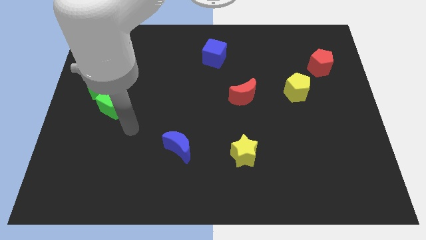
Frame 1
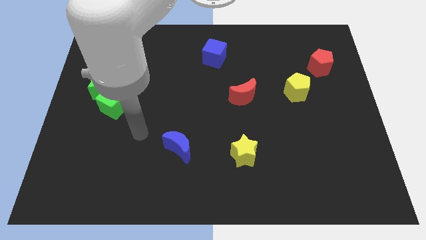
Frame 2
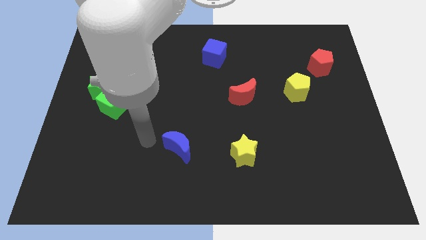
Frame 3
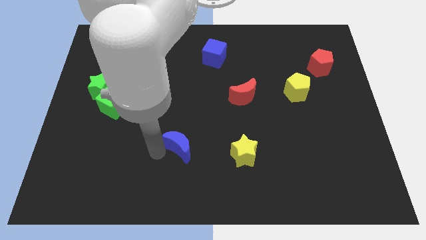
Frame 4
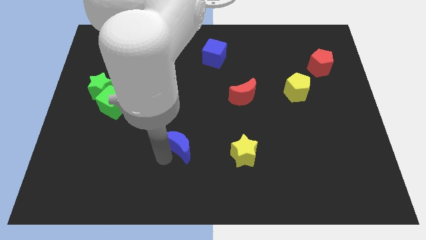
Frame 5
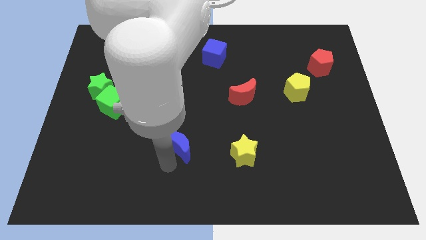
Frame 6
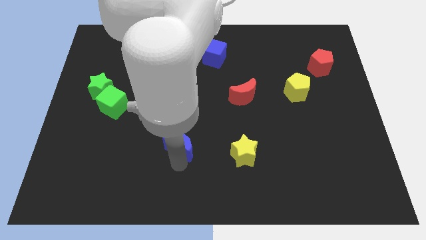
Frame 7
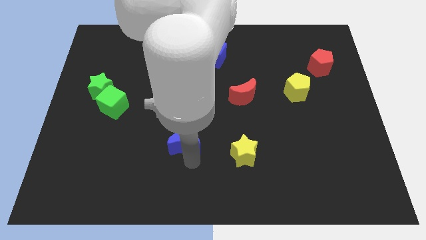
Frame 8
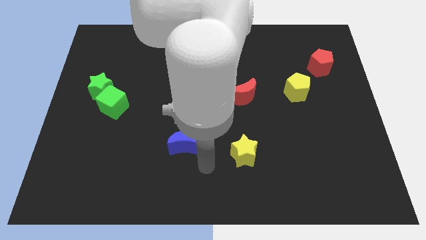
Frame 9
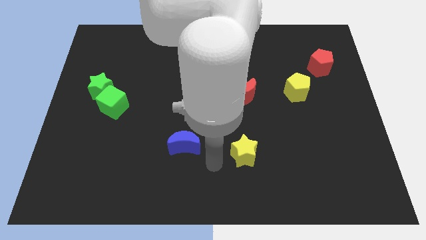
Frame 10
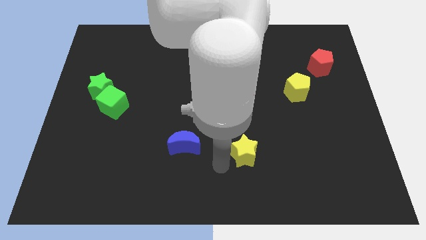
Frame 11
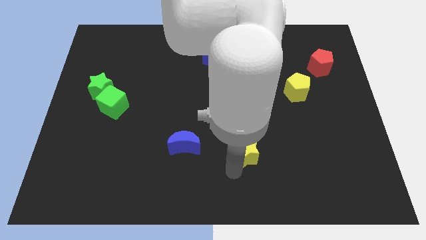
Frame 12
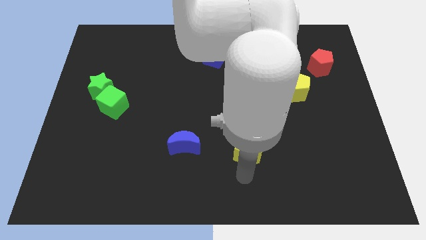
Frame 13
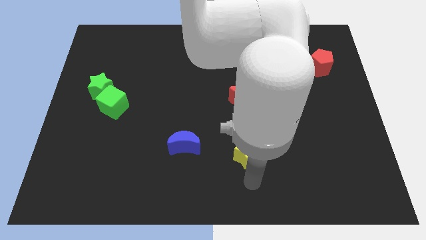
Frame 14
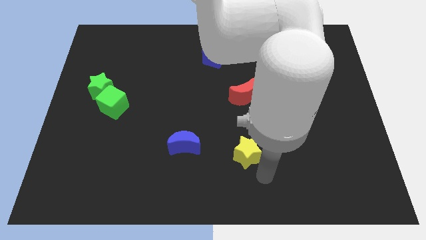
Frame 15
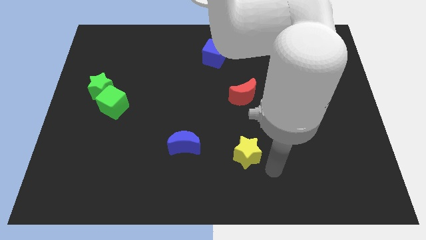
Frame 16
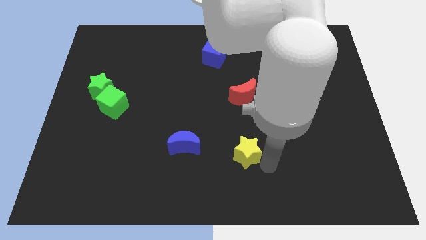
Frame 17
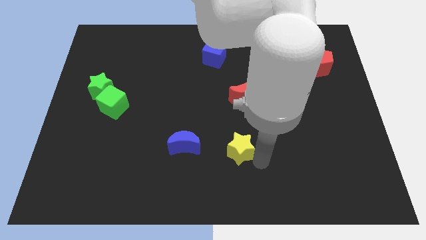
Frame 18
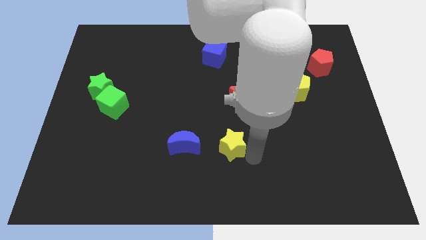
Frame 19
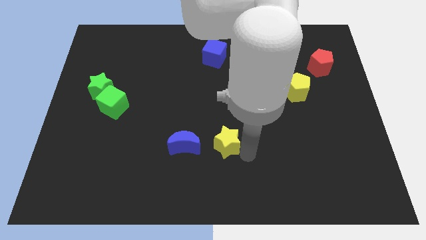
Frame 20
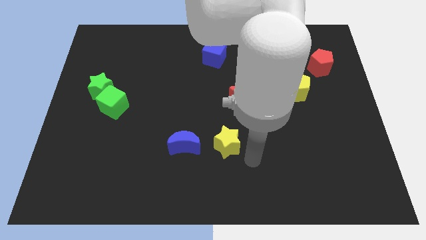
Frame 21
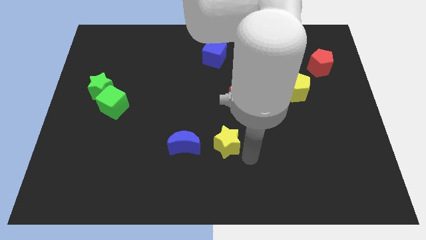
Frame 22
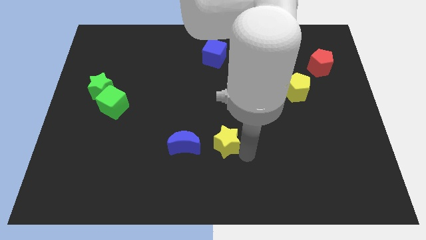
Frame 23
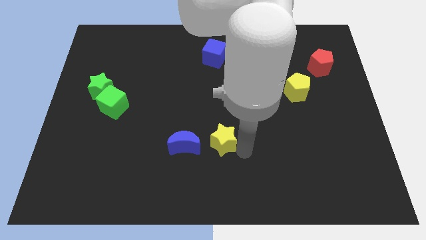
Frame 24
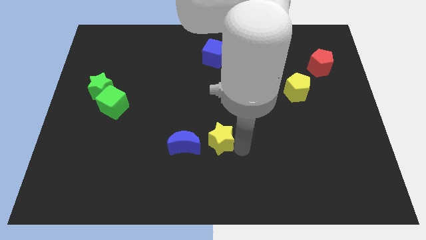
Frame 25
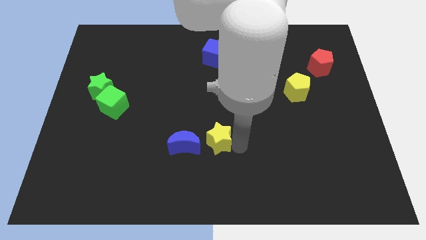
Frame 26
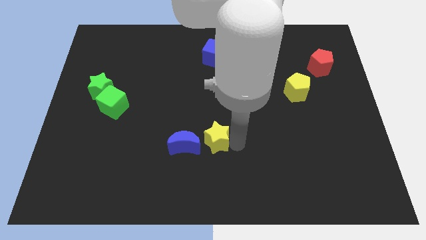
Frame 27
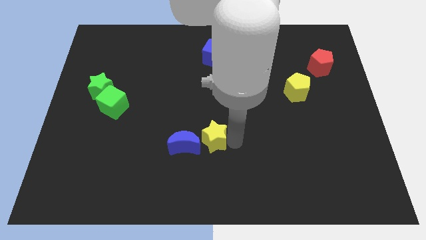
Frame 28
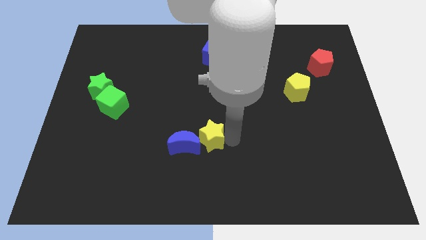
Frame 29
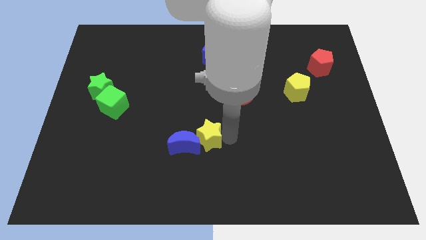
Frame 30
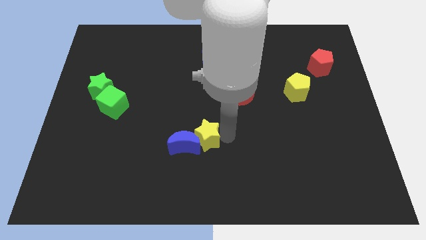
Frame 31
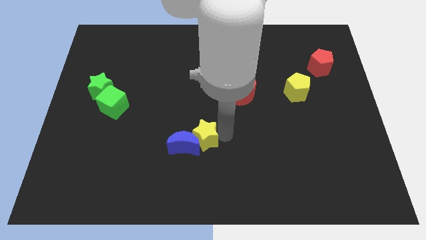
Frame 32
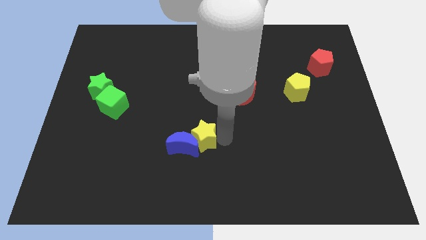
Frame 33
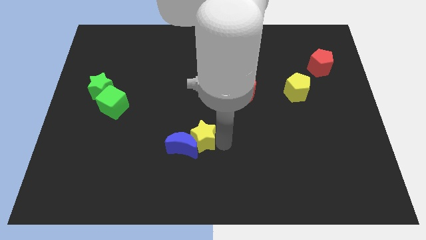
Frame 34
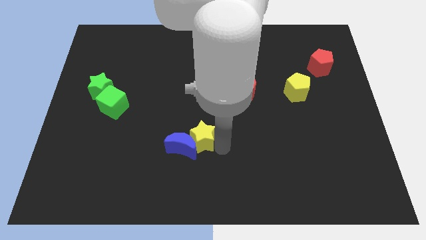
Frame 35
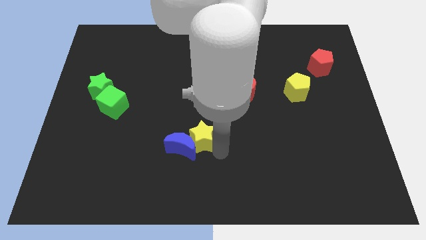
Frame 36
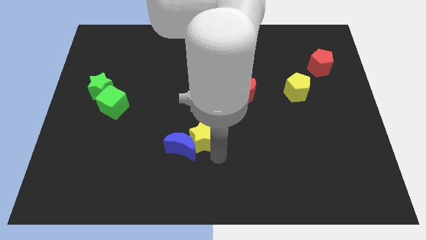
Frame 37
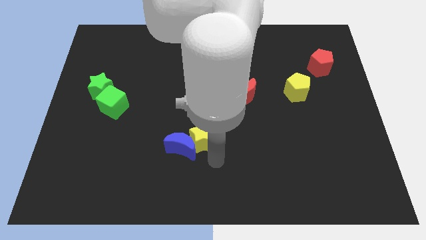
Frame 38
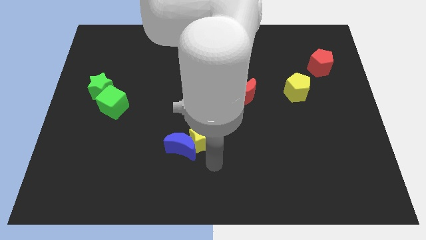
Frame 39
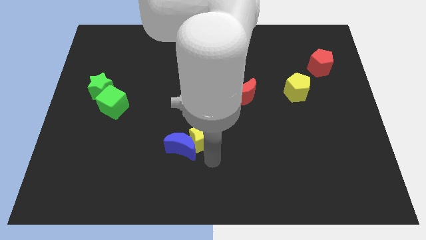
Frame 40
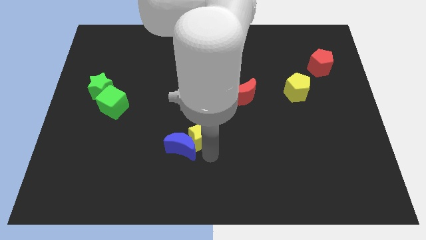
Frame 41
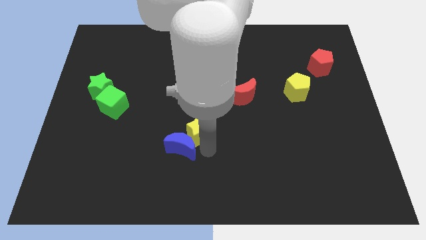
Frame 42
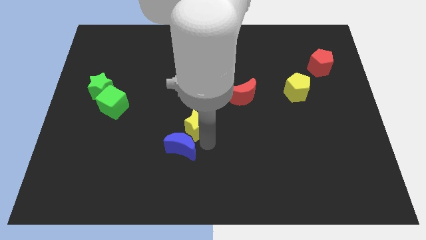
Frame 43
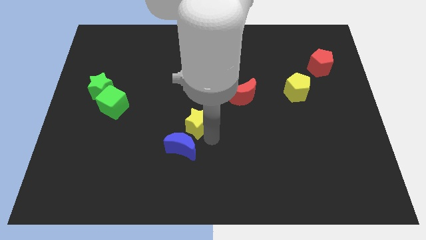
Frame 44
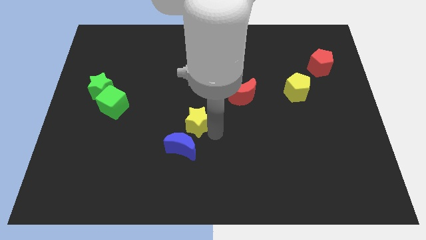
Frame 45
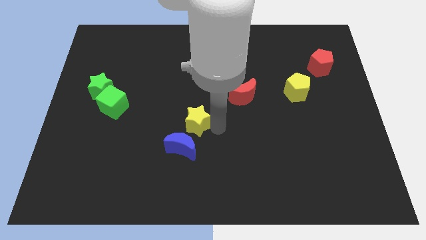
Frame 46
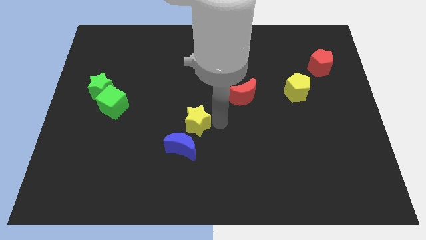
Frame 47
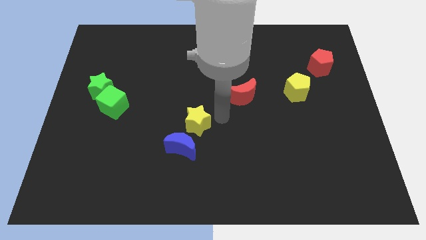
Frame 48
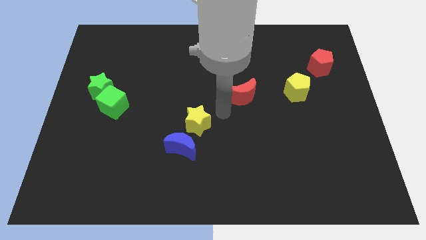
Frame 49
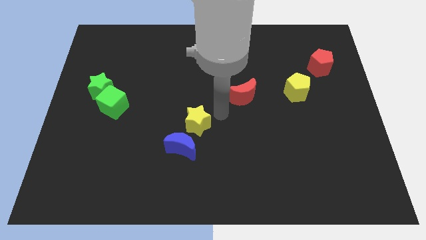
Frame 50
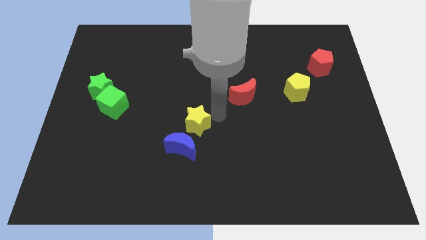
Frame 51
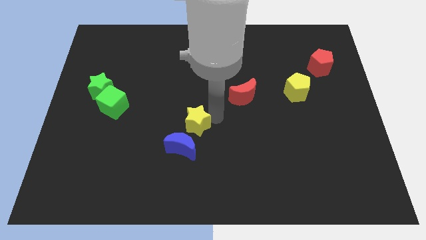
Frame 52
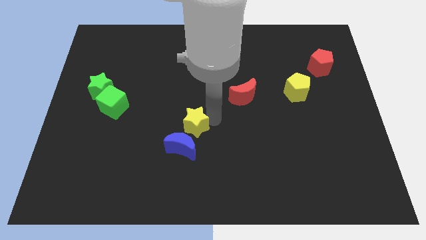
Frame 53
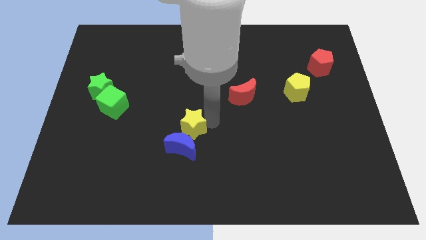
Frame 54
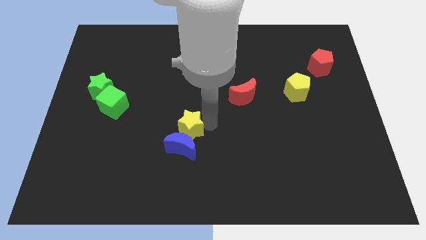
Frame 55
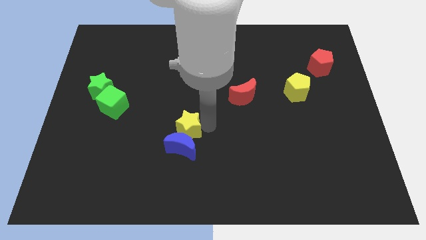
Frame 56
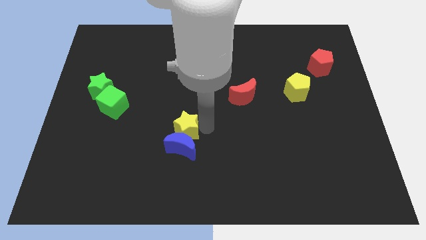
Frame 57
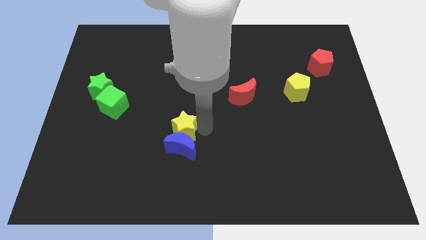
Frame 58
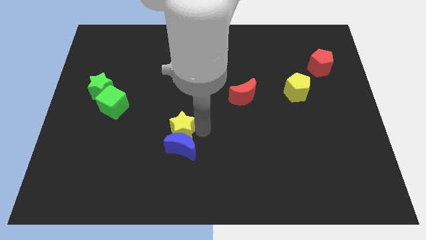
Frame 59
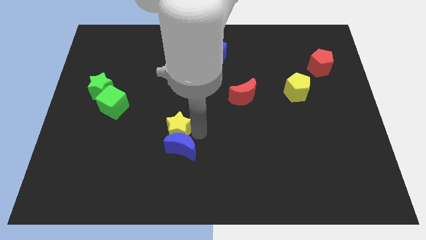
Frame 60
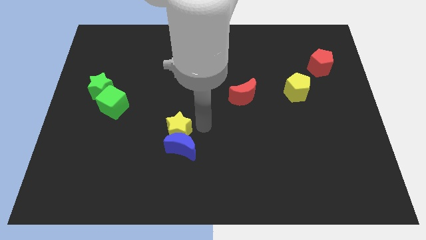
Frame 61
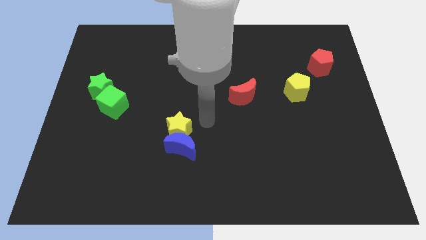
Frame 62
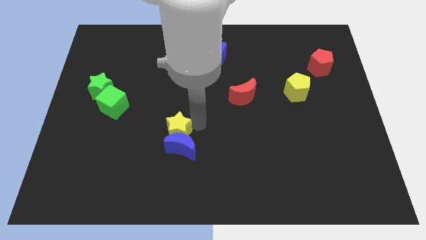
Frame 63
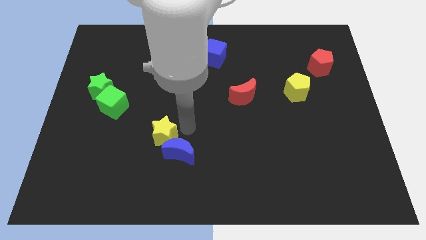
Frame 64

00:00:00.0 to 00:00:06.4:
slide the yellow star to the left side of the blue moon

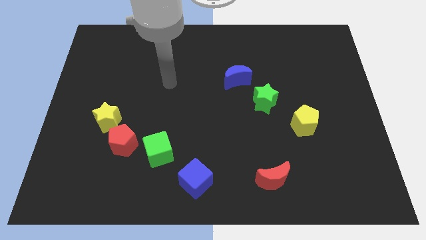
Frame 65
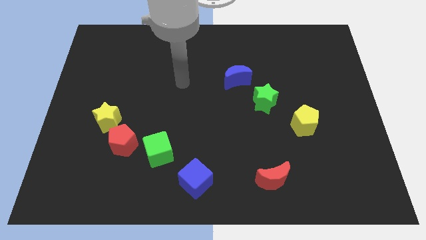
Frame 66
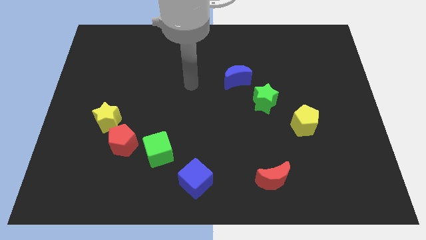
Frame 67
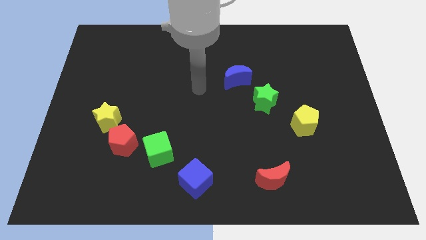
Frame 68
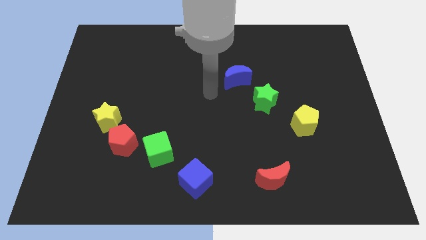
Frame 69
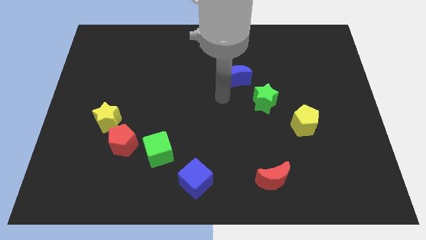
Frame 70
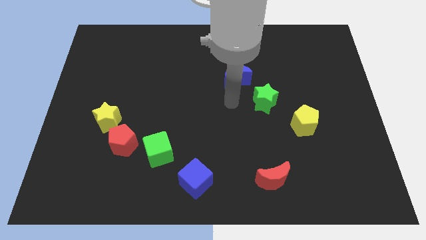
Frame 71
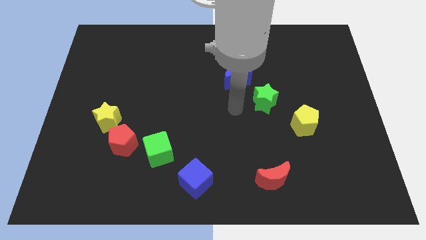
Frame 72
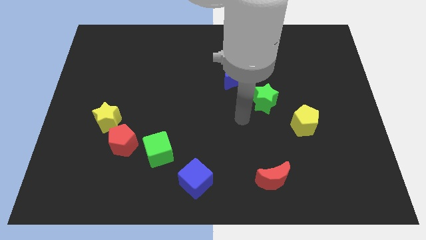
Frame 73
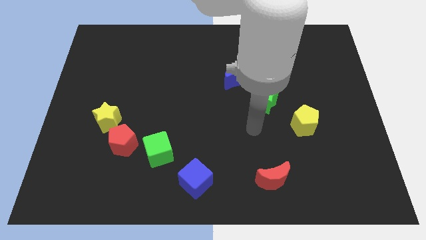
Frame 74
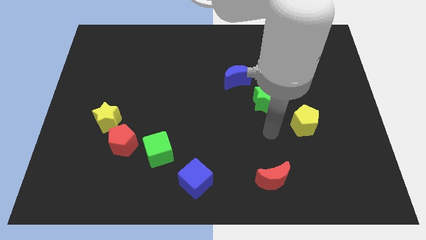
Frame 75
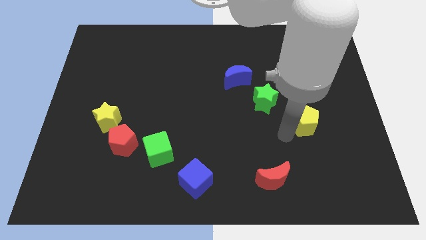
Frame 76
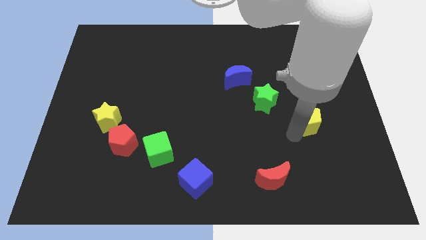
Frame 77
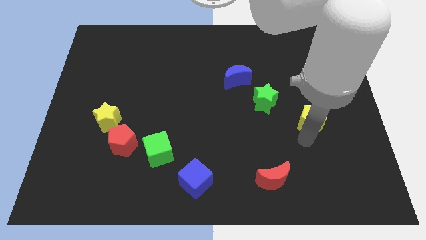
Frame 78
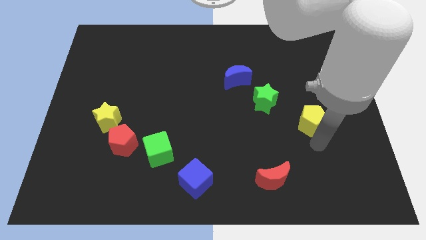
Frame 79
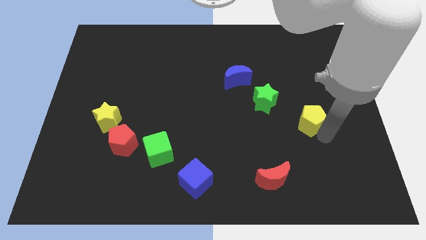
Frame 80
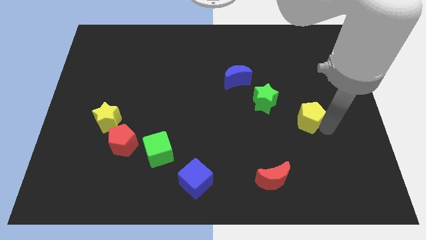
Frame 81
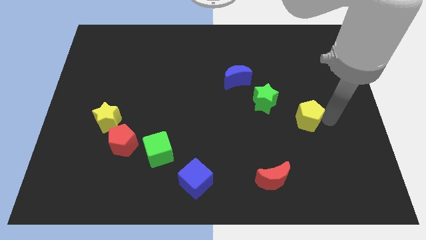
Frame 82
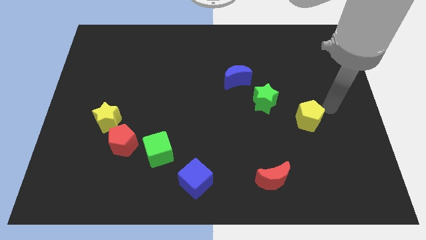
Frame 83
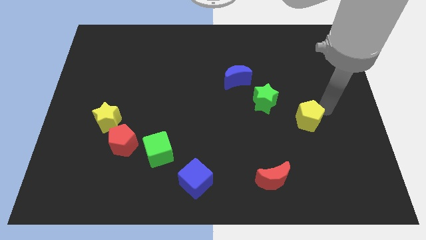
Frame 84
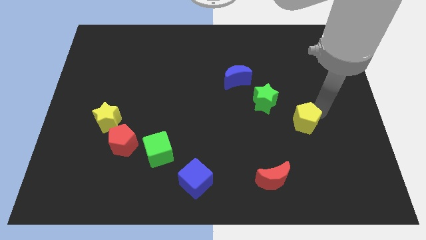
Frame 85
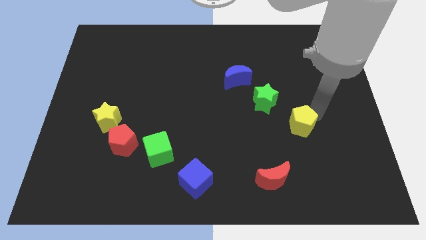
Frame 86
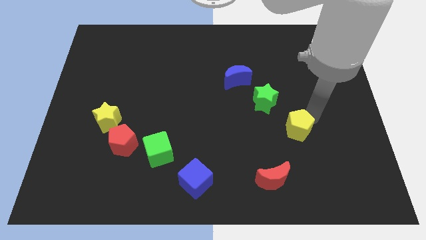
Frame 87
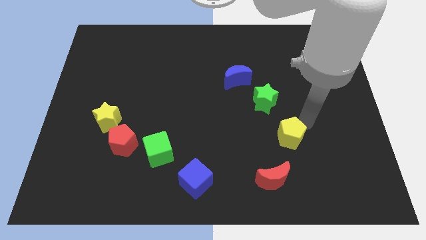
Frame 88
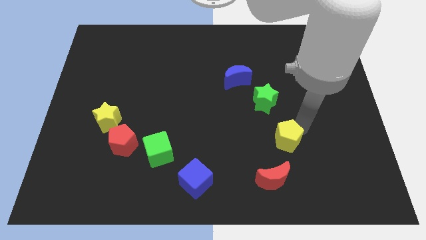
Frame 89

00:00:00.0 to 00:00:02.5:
push the yellow pentagon to the bottom side of the green star
